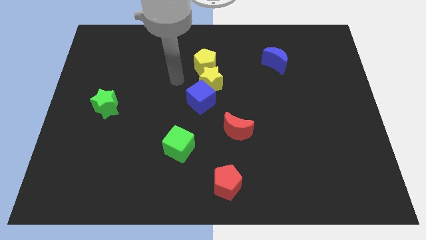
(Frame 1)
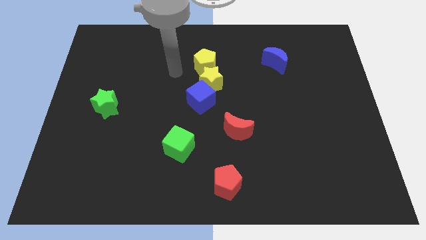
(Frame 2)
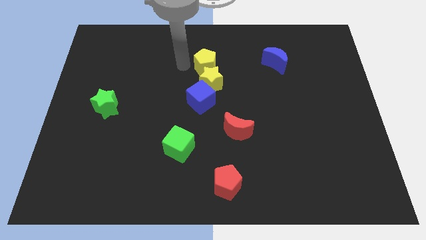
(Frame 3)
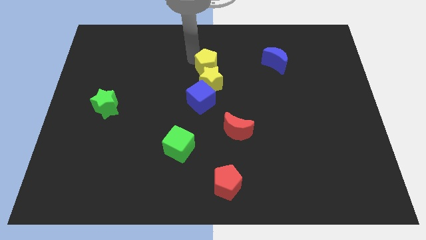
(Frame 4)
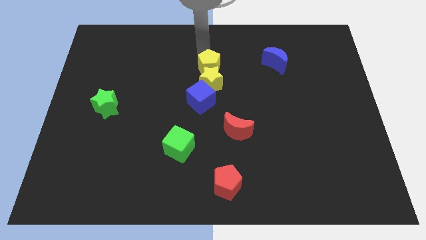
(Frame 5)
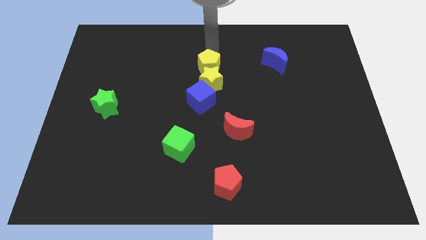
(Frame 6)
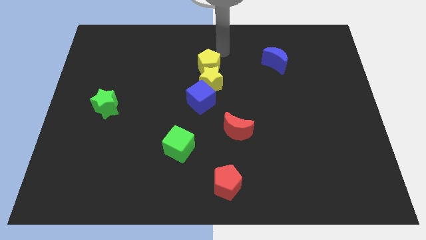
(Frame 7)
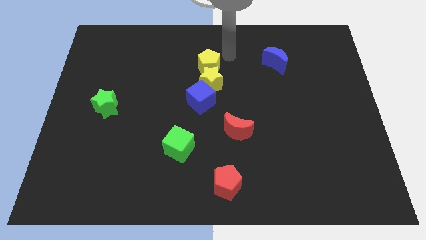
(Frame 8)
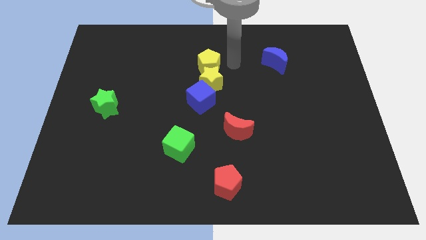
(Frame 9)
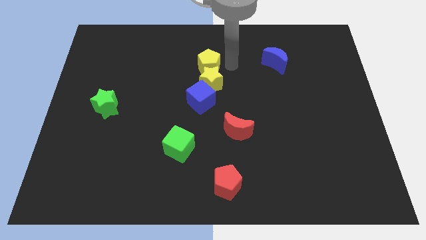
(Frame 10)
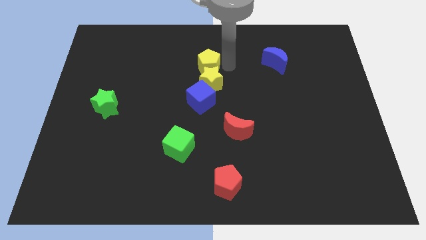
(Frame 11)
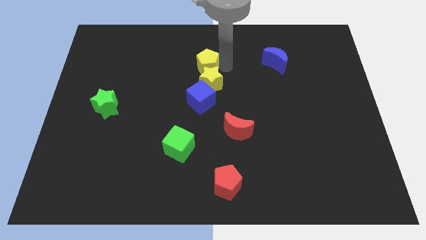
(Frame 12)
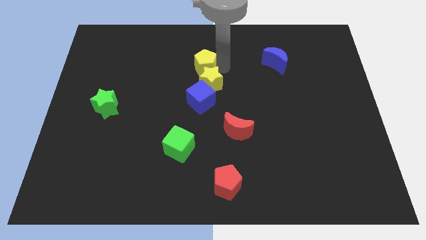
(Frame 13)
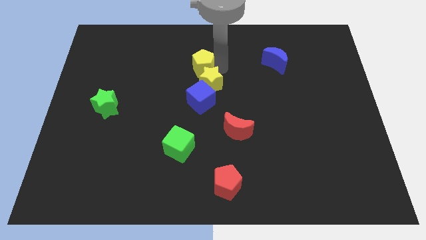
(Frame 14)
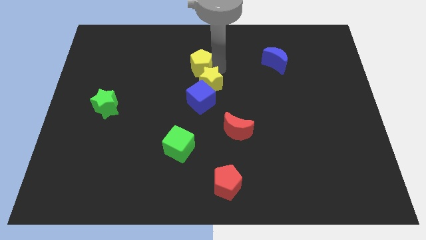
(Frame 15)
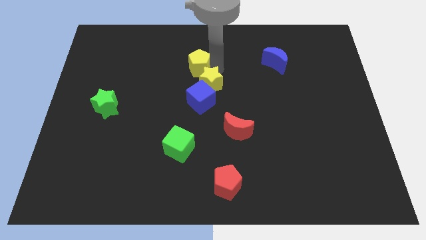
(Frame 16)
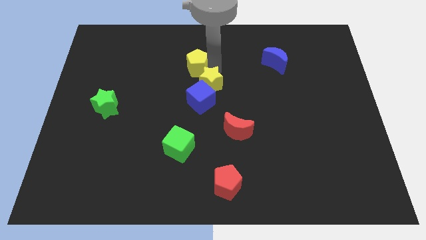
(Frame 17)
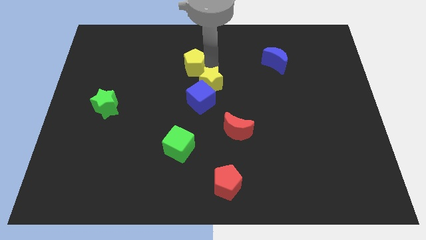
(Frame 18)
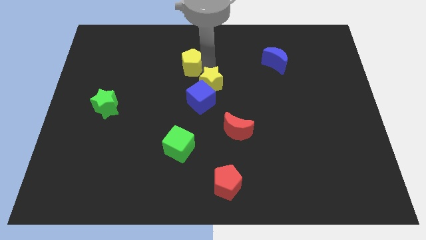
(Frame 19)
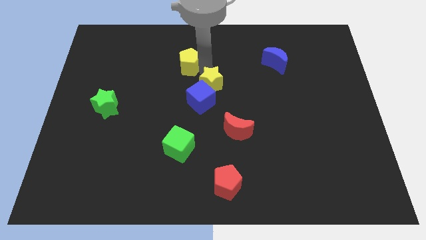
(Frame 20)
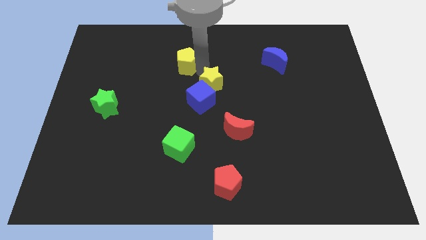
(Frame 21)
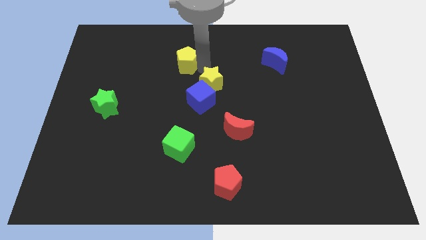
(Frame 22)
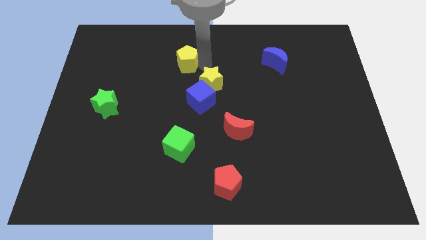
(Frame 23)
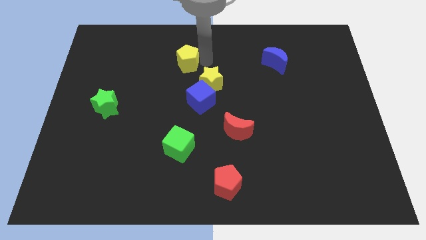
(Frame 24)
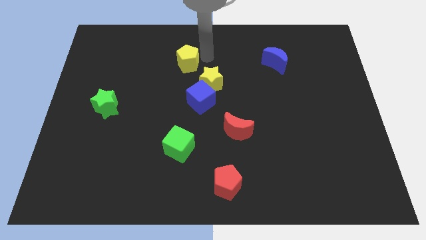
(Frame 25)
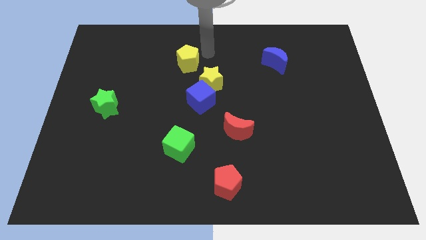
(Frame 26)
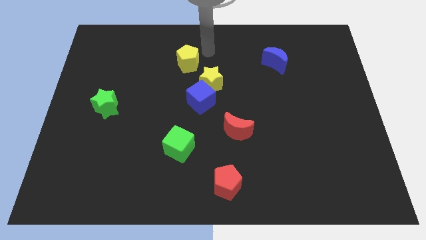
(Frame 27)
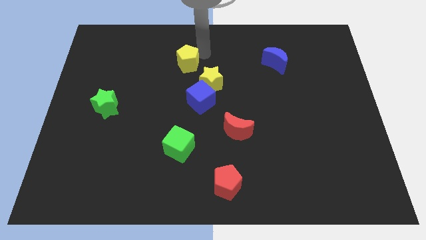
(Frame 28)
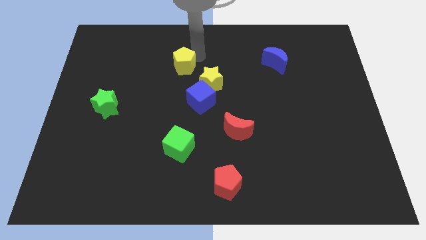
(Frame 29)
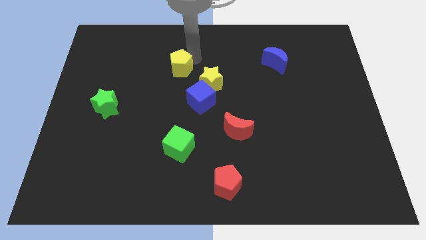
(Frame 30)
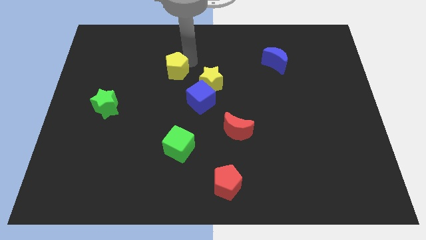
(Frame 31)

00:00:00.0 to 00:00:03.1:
push the yellow pentagon to the left slightly

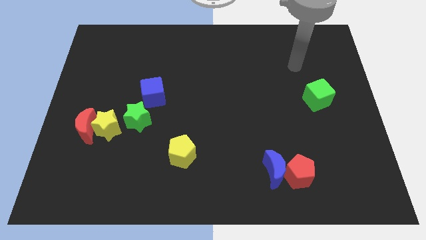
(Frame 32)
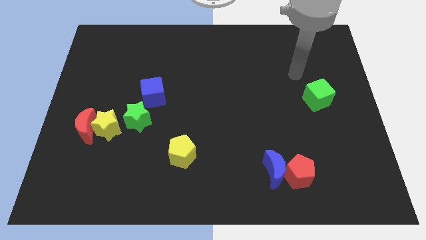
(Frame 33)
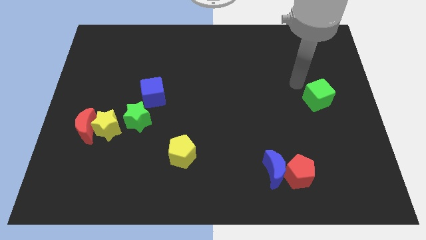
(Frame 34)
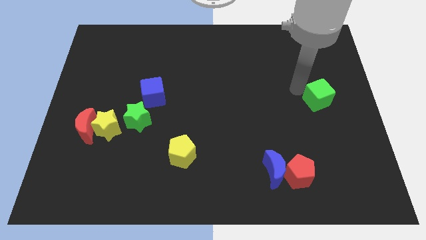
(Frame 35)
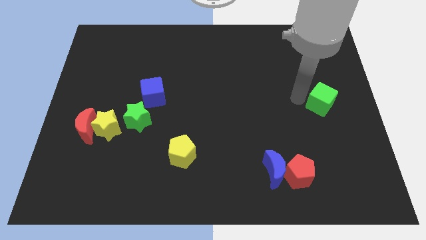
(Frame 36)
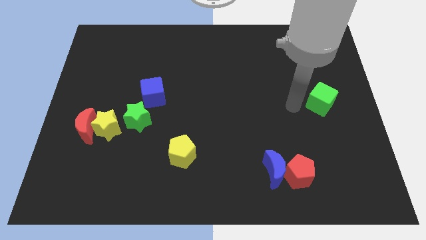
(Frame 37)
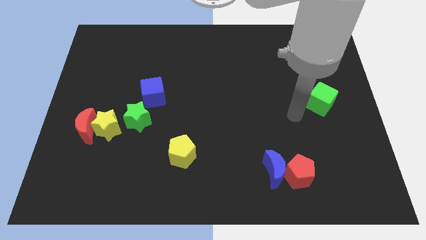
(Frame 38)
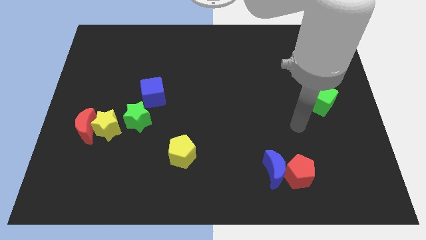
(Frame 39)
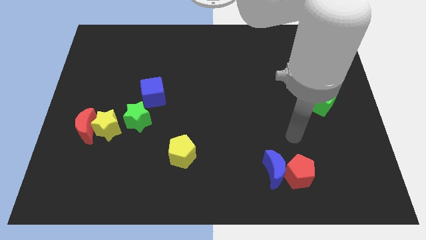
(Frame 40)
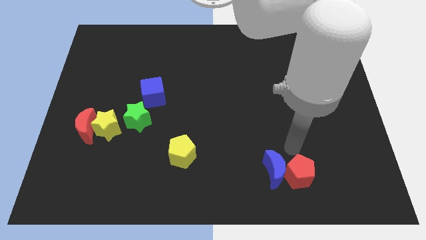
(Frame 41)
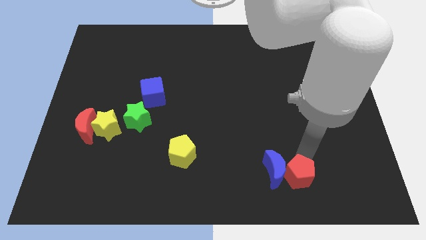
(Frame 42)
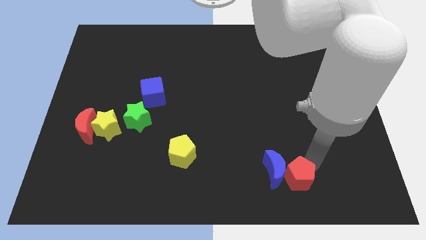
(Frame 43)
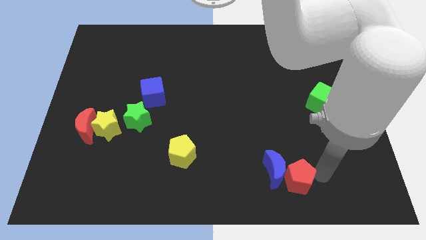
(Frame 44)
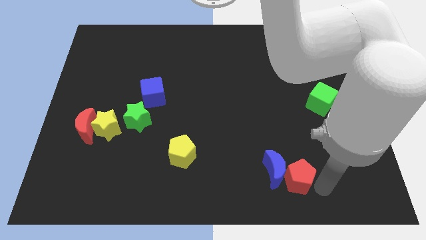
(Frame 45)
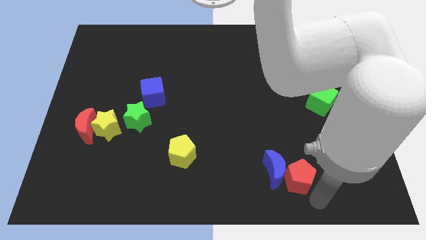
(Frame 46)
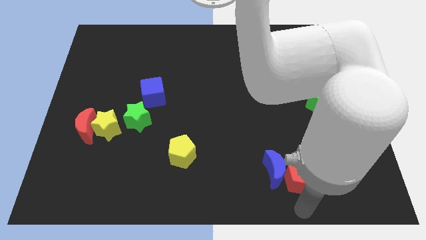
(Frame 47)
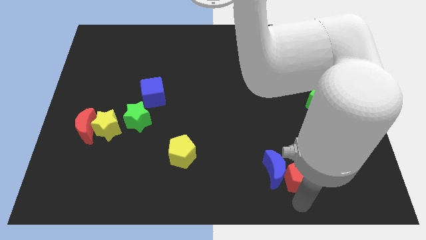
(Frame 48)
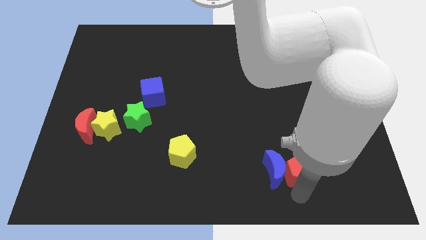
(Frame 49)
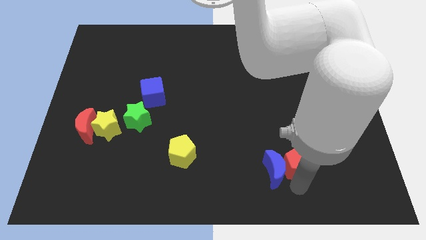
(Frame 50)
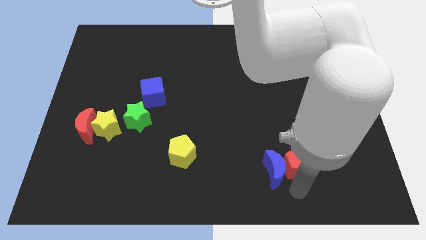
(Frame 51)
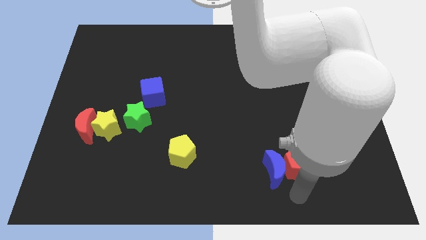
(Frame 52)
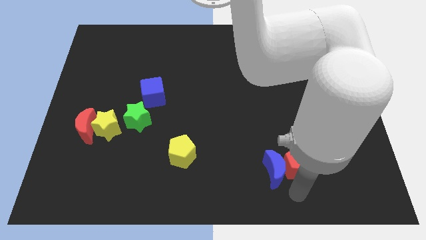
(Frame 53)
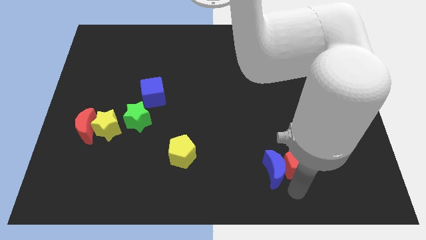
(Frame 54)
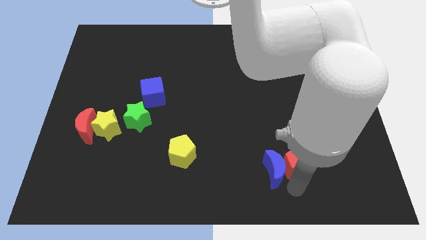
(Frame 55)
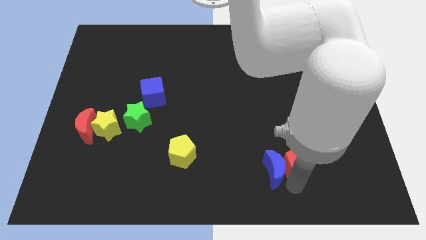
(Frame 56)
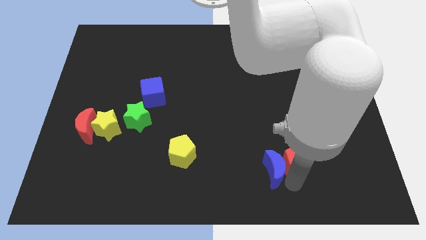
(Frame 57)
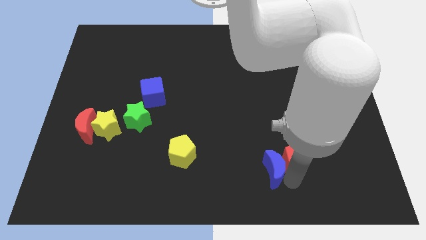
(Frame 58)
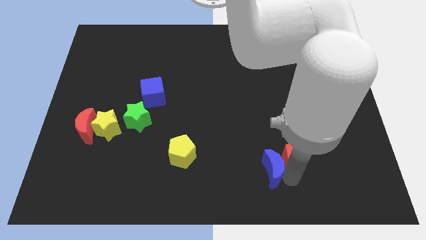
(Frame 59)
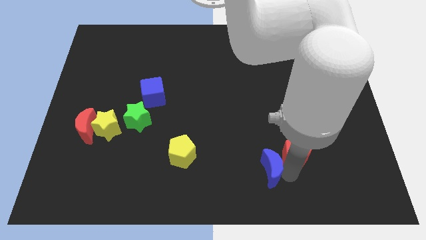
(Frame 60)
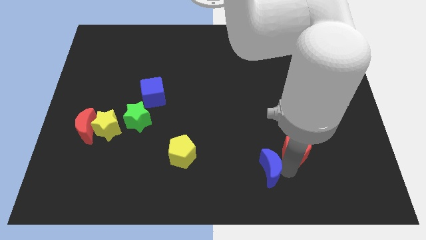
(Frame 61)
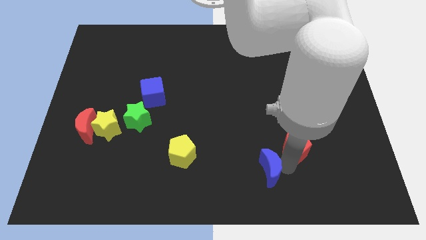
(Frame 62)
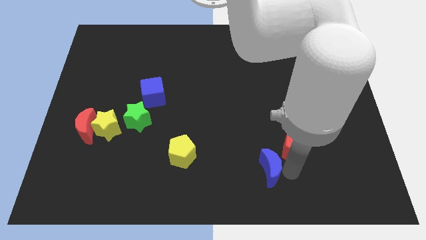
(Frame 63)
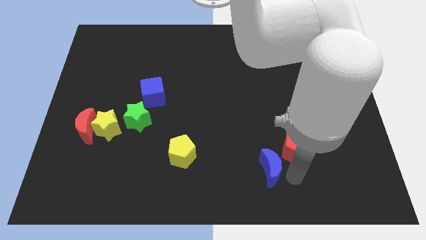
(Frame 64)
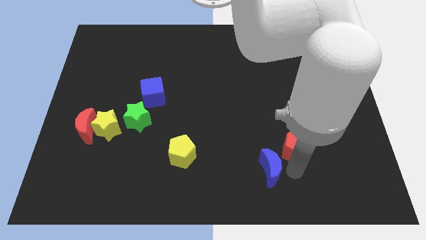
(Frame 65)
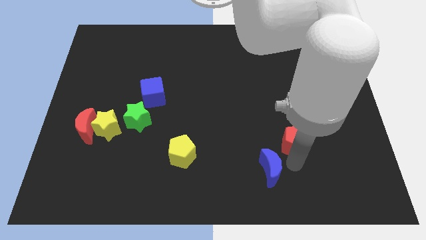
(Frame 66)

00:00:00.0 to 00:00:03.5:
slightly slide the red pentagon upwards

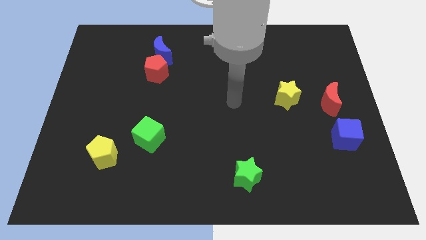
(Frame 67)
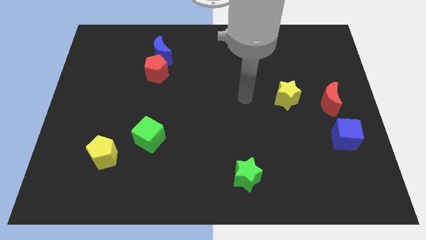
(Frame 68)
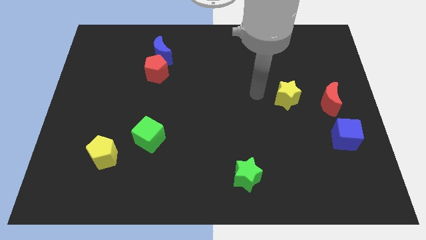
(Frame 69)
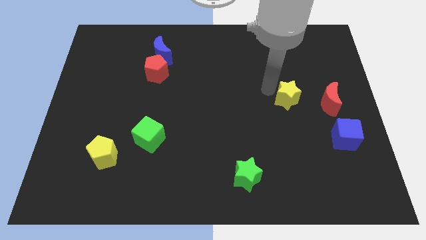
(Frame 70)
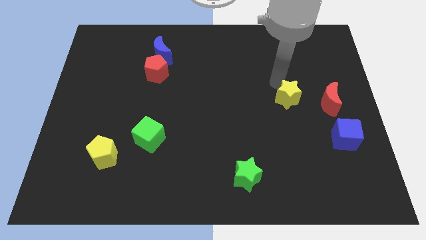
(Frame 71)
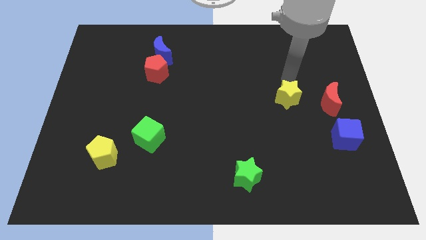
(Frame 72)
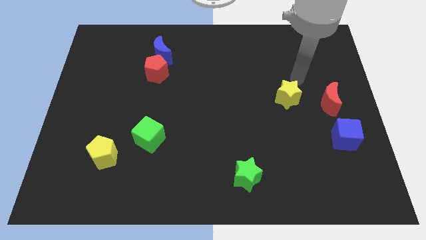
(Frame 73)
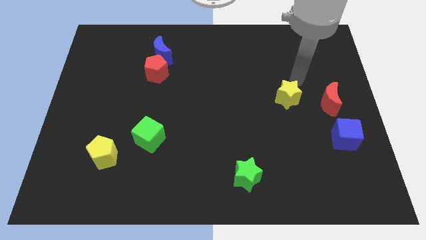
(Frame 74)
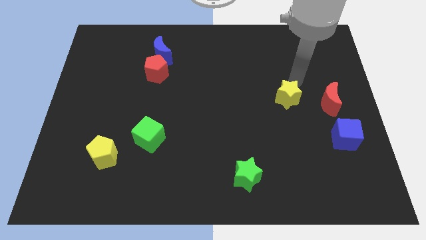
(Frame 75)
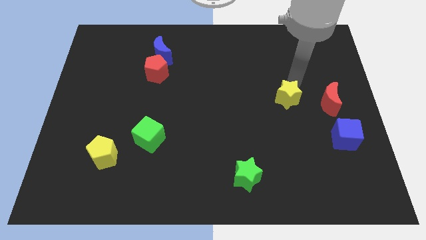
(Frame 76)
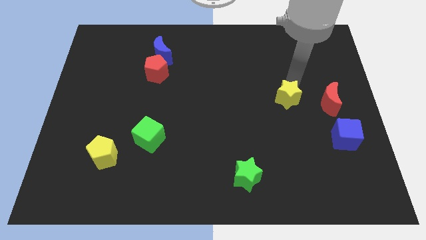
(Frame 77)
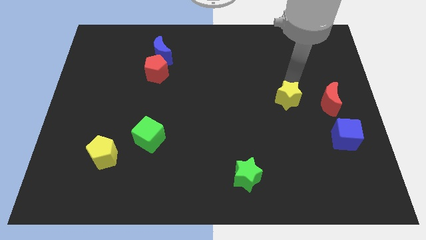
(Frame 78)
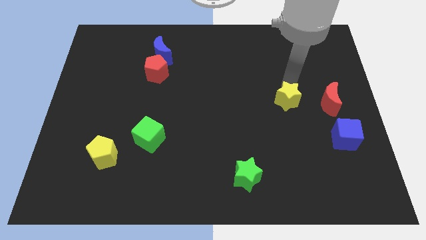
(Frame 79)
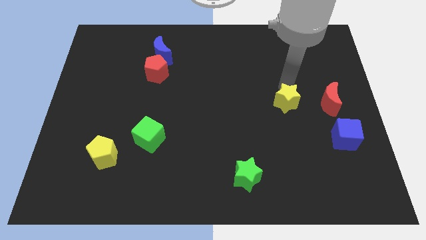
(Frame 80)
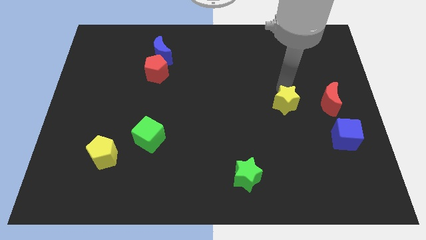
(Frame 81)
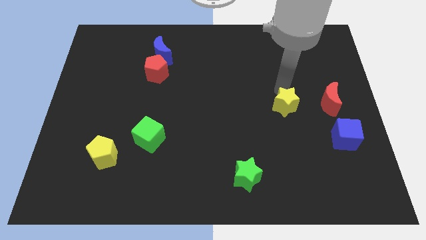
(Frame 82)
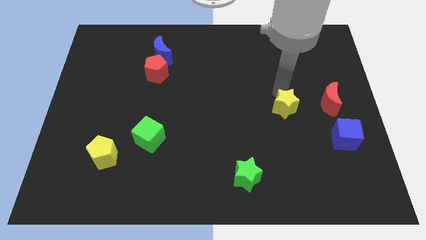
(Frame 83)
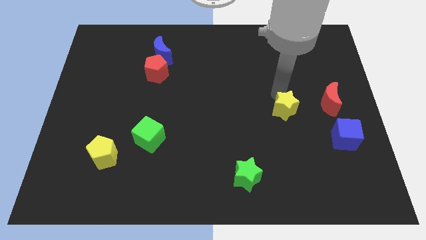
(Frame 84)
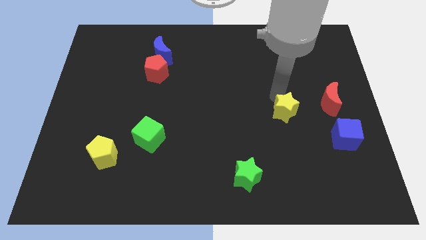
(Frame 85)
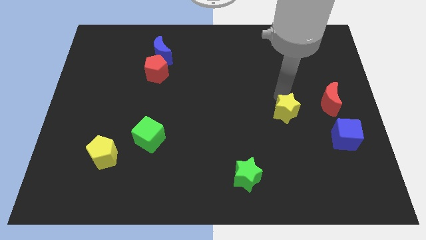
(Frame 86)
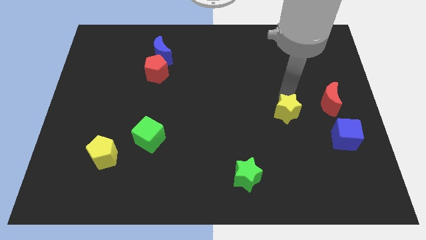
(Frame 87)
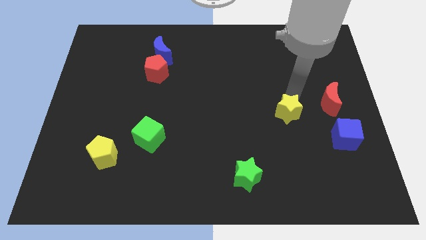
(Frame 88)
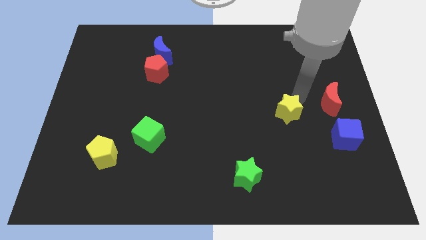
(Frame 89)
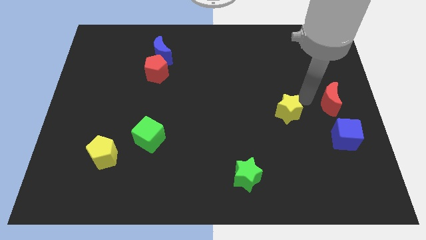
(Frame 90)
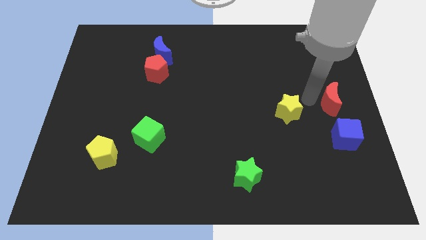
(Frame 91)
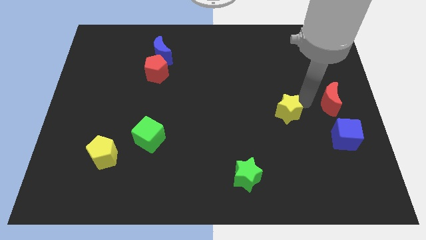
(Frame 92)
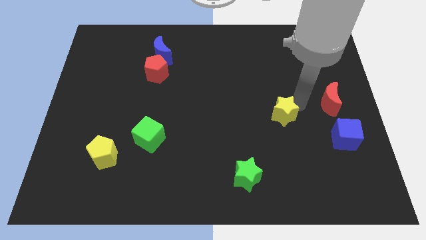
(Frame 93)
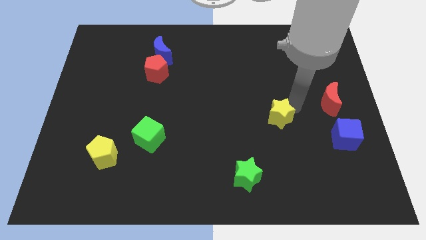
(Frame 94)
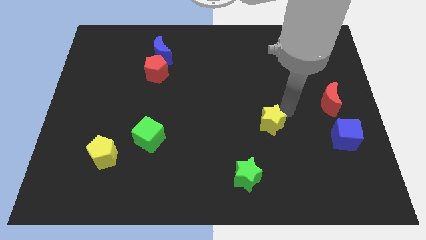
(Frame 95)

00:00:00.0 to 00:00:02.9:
slightly move the yellow star downwards and to the left diagonally
